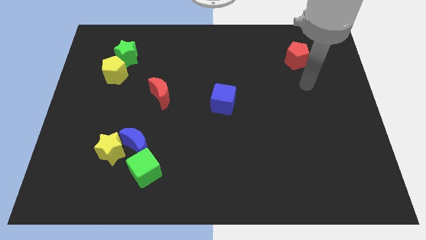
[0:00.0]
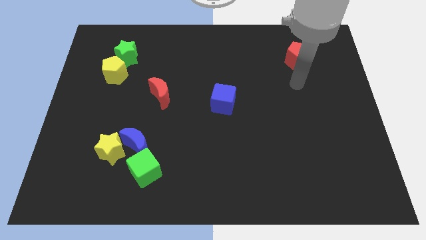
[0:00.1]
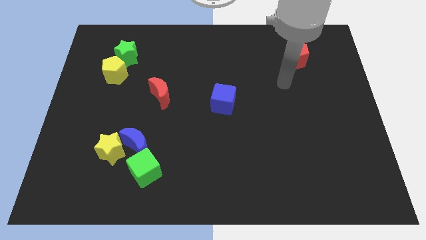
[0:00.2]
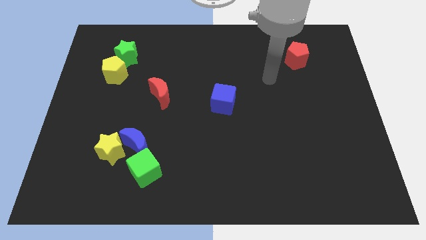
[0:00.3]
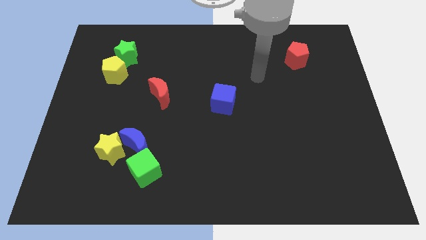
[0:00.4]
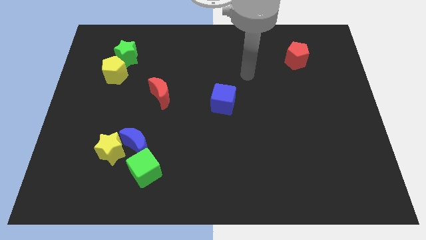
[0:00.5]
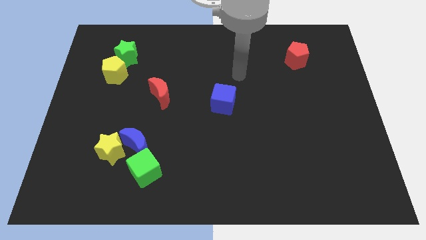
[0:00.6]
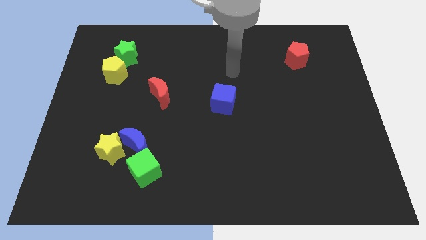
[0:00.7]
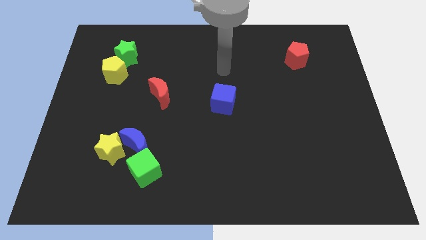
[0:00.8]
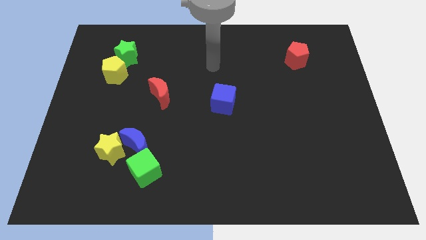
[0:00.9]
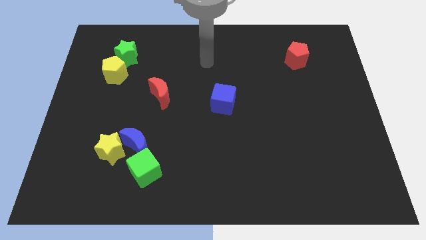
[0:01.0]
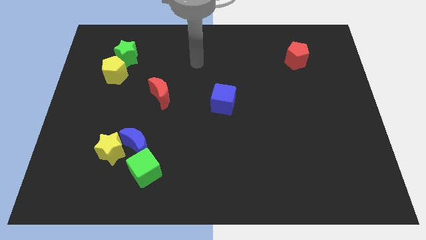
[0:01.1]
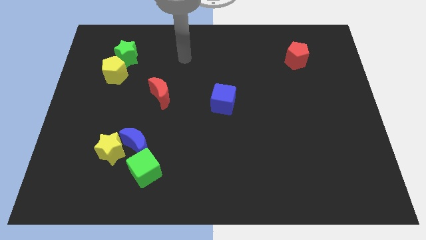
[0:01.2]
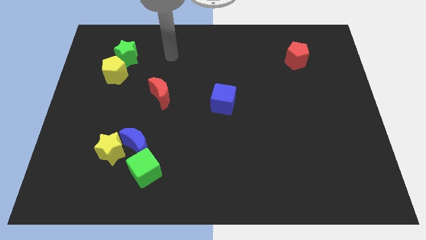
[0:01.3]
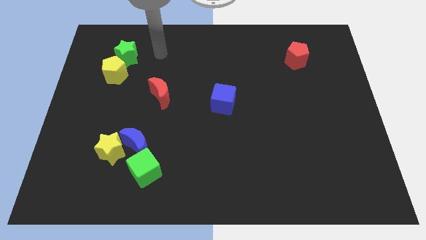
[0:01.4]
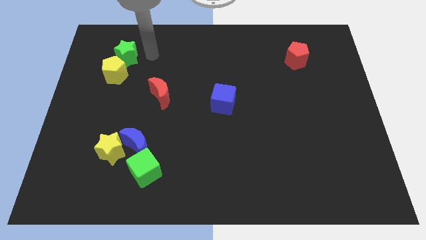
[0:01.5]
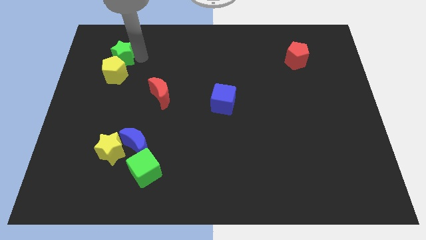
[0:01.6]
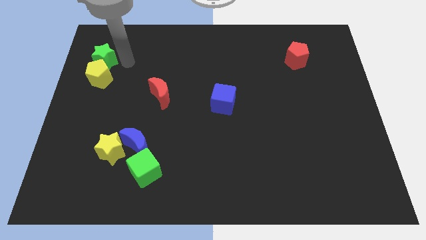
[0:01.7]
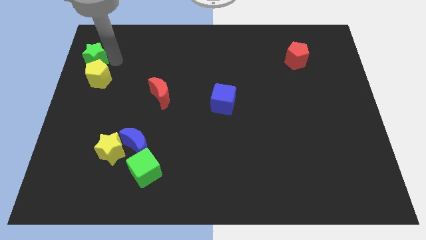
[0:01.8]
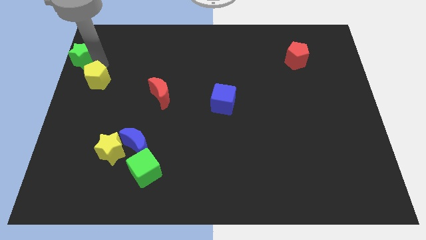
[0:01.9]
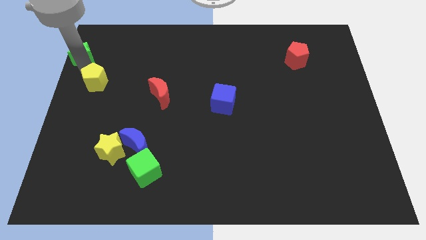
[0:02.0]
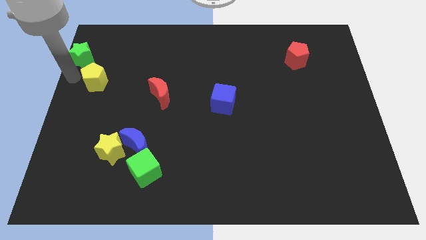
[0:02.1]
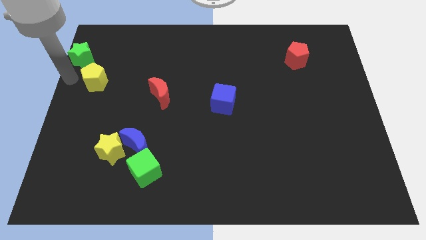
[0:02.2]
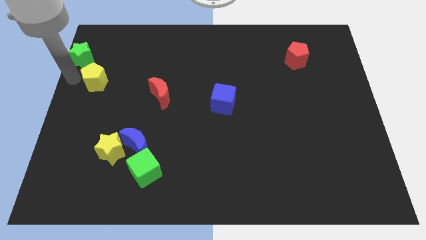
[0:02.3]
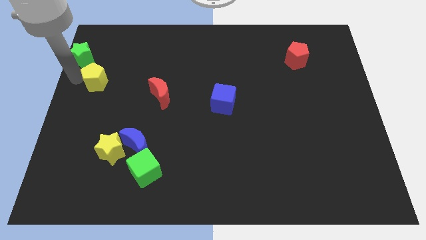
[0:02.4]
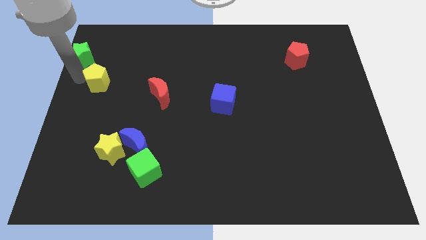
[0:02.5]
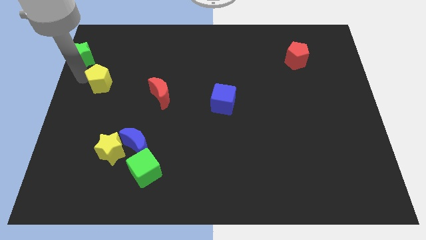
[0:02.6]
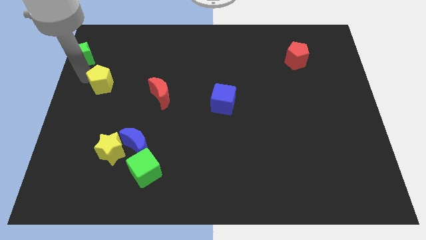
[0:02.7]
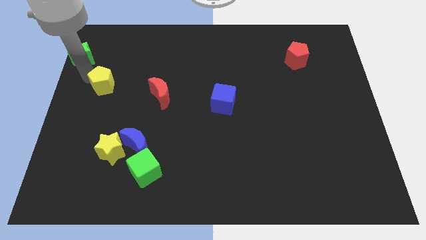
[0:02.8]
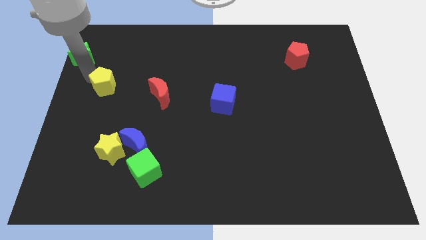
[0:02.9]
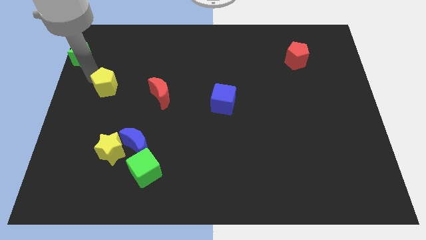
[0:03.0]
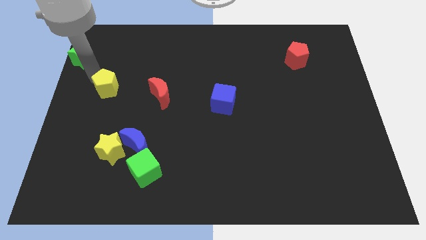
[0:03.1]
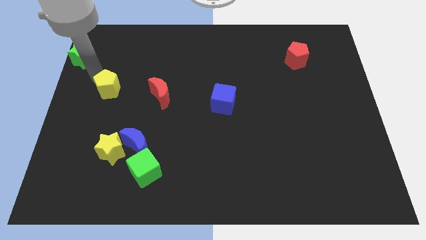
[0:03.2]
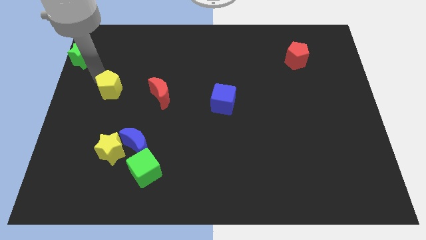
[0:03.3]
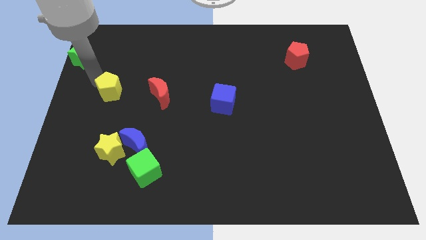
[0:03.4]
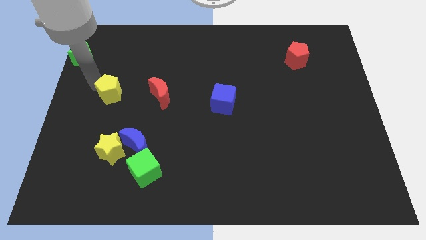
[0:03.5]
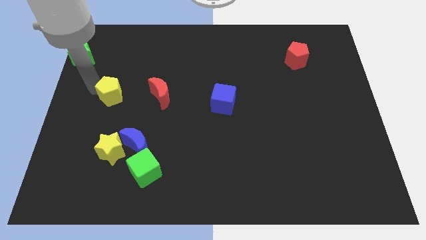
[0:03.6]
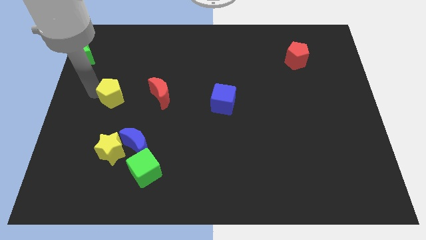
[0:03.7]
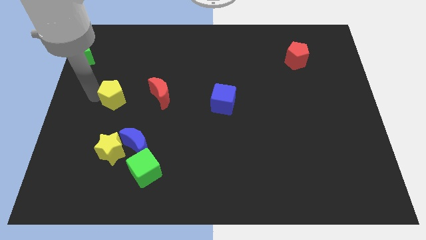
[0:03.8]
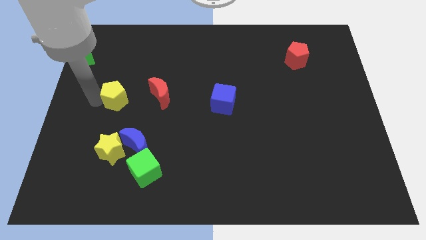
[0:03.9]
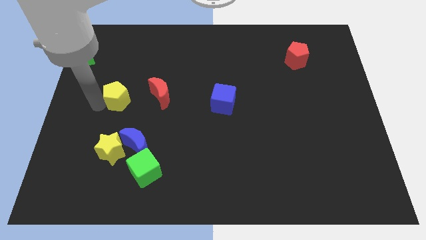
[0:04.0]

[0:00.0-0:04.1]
move the yellow pentagon a bit downwards and to the right

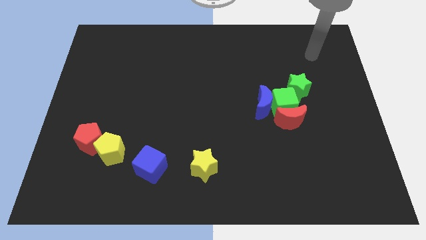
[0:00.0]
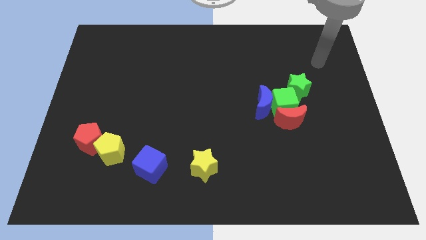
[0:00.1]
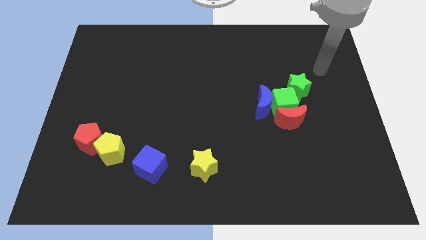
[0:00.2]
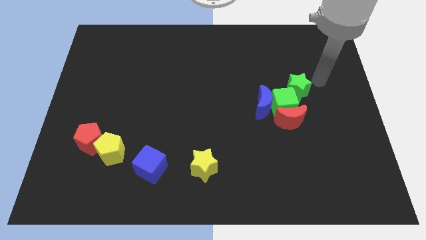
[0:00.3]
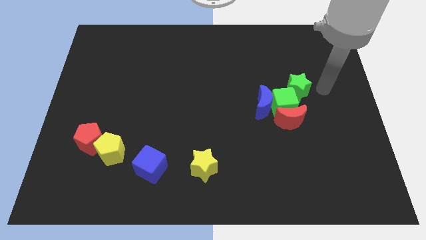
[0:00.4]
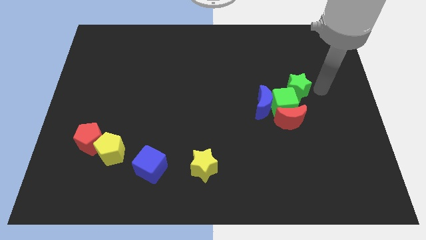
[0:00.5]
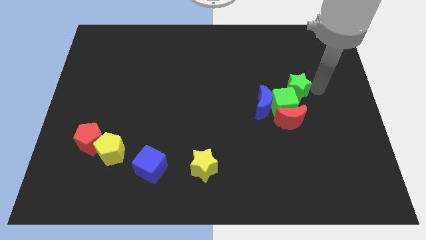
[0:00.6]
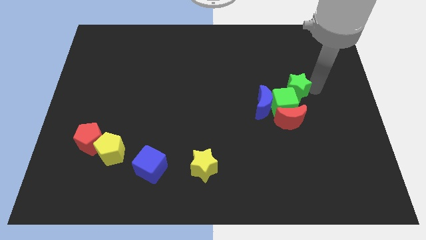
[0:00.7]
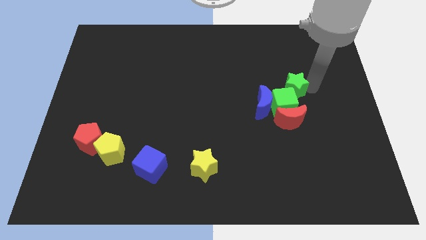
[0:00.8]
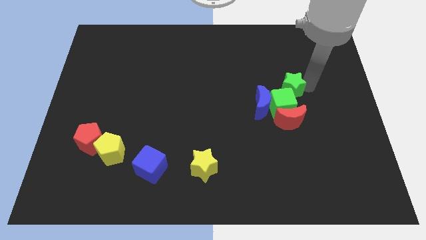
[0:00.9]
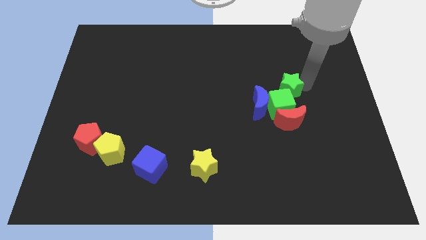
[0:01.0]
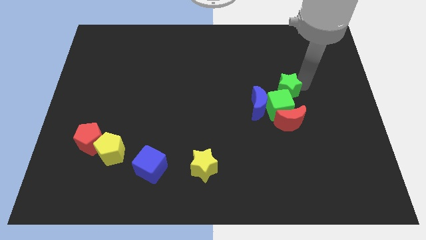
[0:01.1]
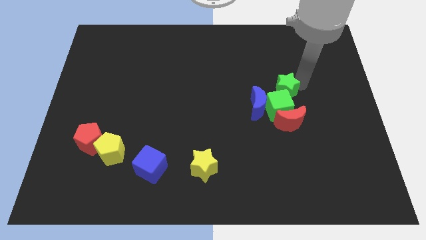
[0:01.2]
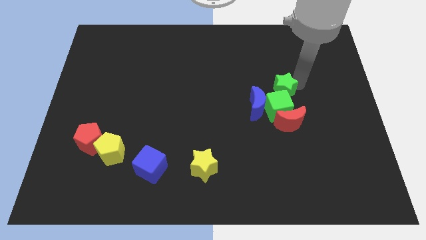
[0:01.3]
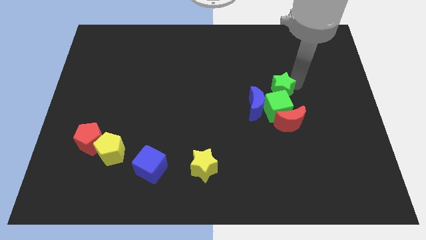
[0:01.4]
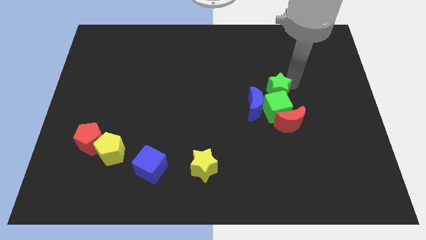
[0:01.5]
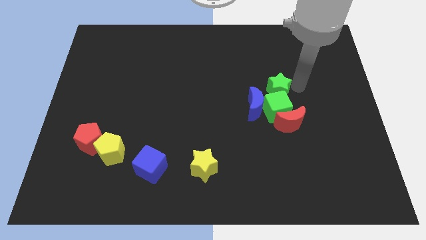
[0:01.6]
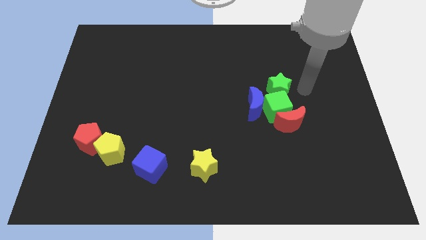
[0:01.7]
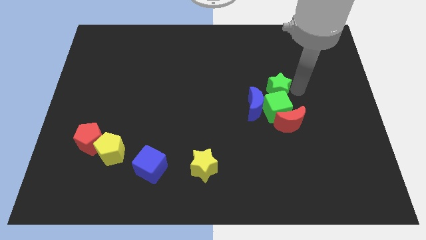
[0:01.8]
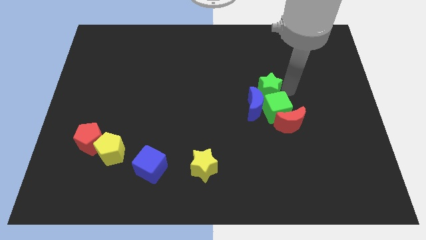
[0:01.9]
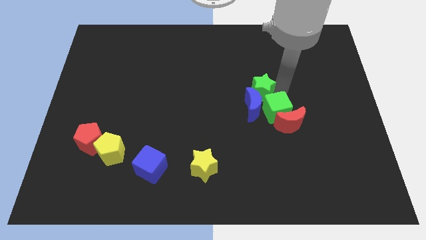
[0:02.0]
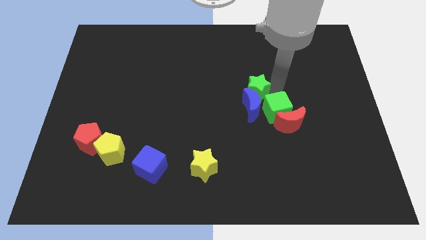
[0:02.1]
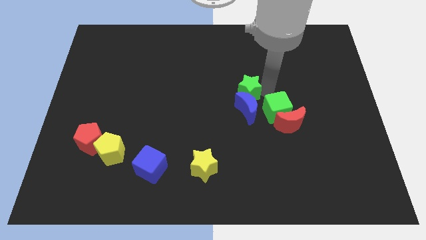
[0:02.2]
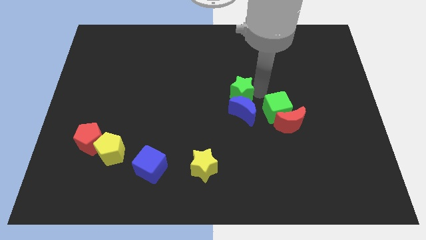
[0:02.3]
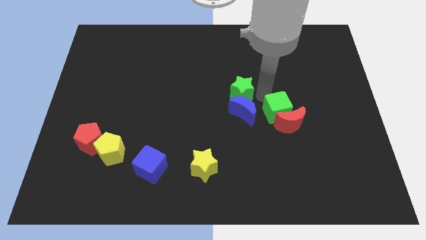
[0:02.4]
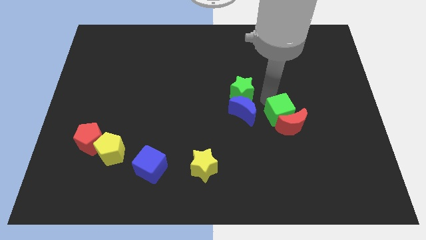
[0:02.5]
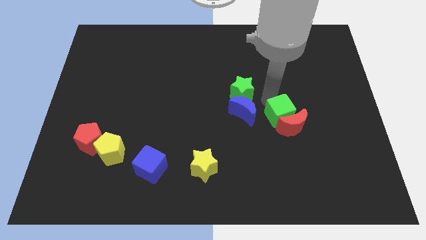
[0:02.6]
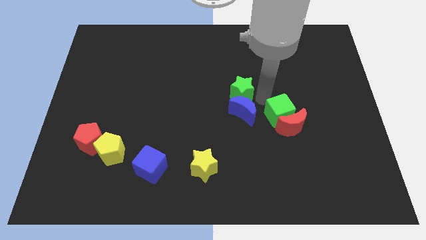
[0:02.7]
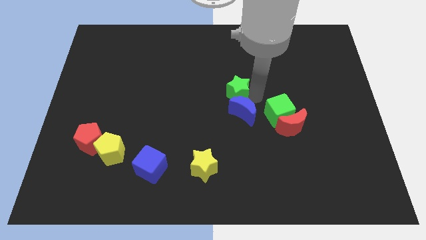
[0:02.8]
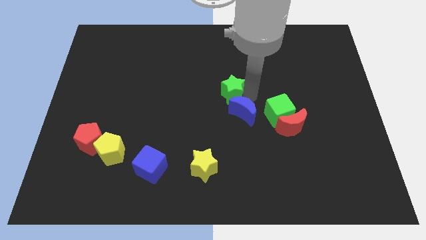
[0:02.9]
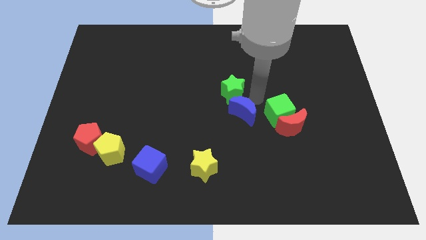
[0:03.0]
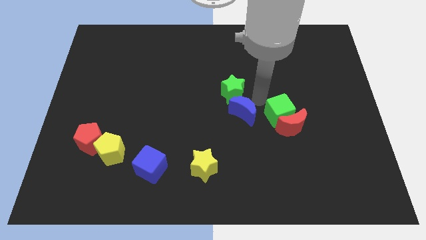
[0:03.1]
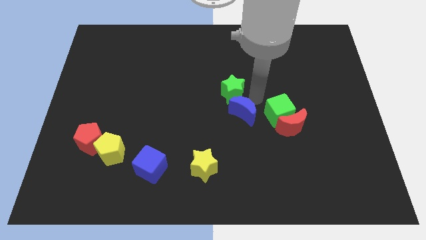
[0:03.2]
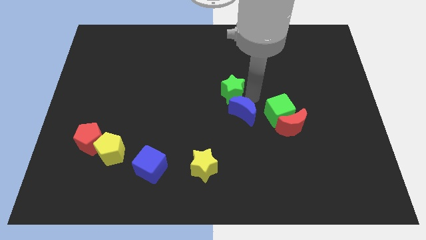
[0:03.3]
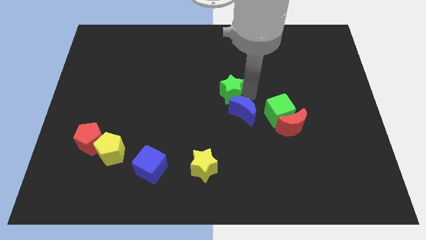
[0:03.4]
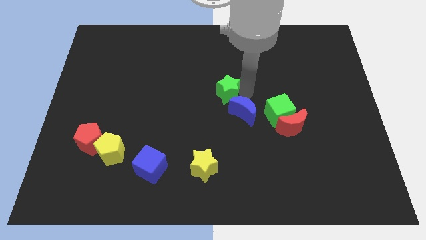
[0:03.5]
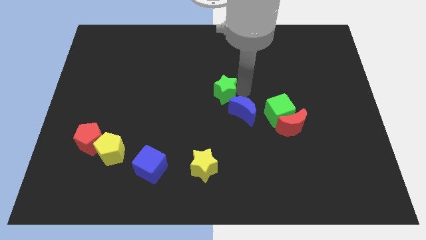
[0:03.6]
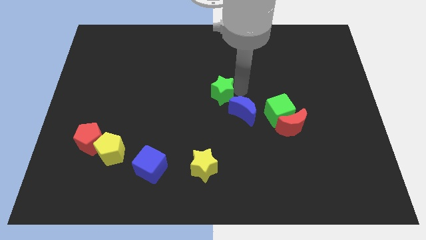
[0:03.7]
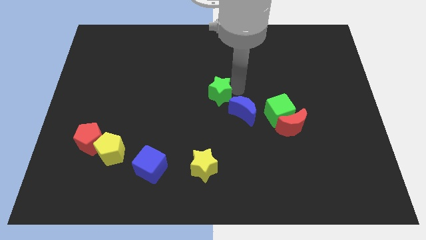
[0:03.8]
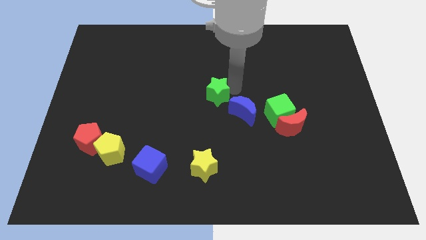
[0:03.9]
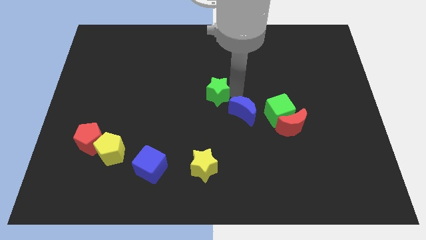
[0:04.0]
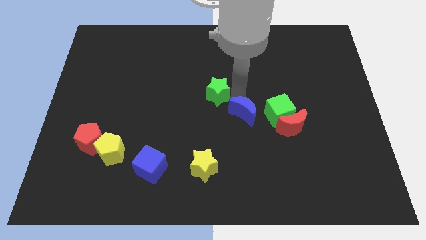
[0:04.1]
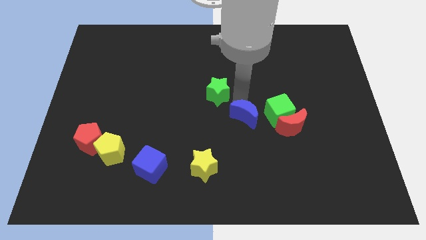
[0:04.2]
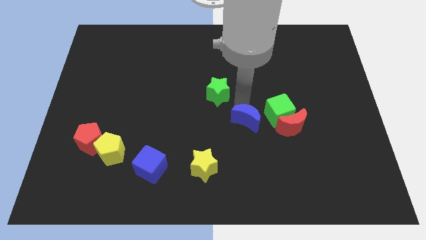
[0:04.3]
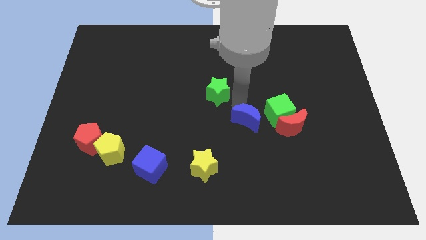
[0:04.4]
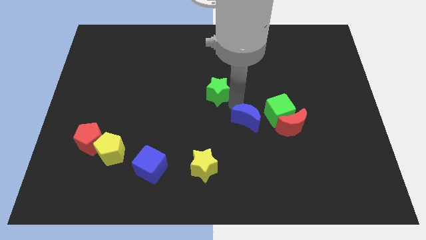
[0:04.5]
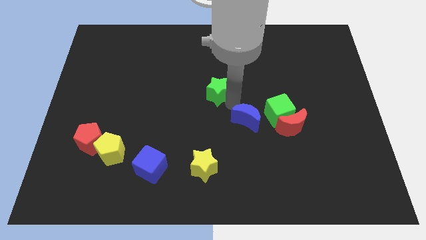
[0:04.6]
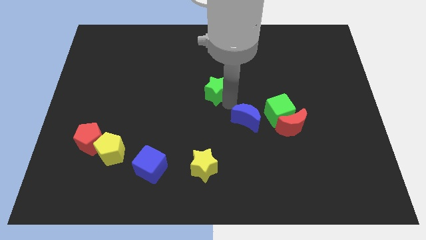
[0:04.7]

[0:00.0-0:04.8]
move the green star left
